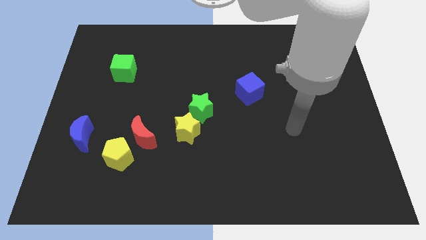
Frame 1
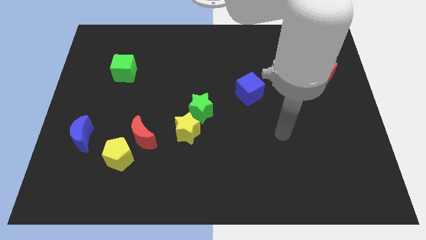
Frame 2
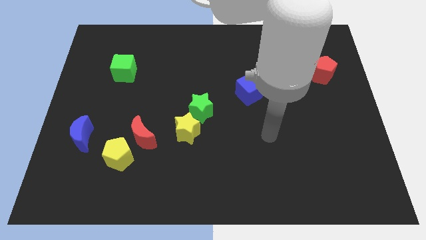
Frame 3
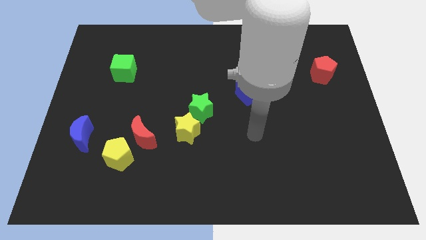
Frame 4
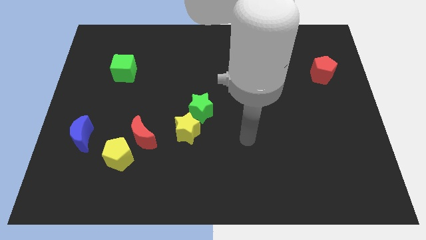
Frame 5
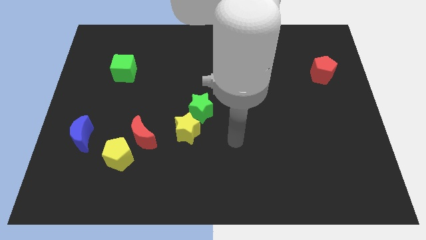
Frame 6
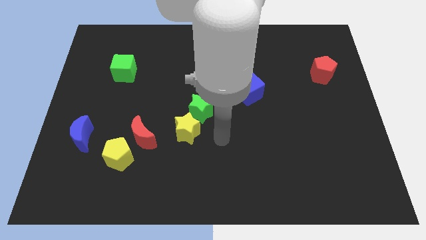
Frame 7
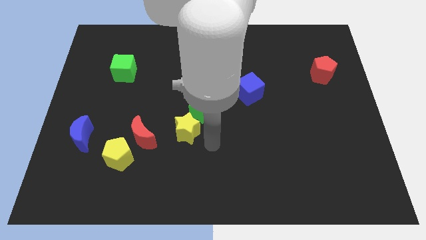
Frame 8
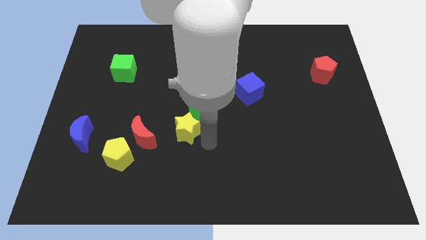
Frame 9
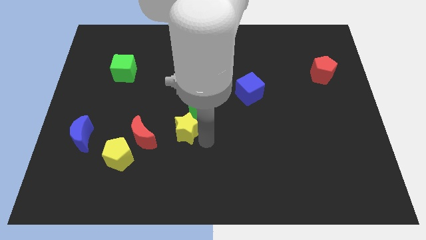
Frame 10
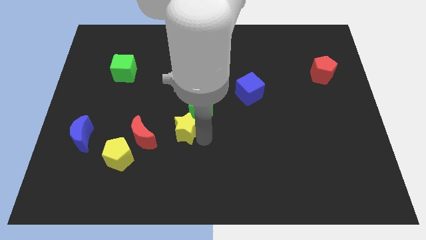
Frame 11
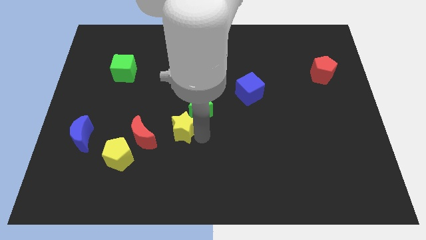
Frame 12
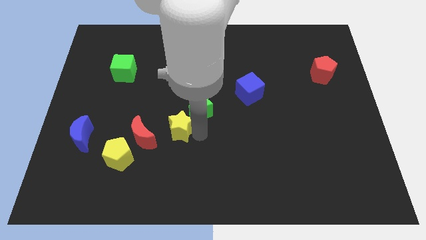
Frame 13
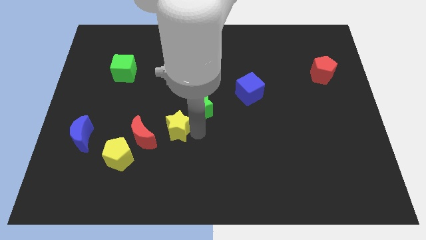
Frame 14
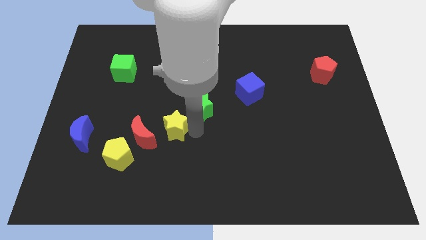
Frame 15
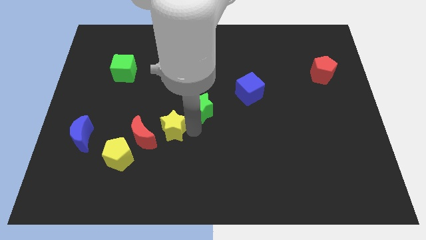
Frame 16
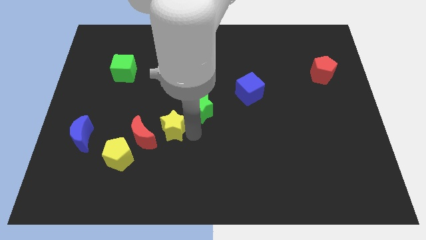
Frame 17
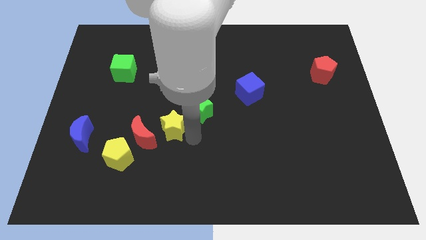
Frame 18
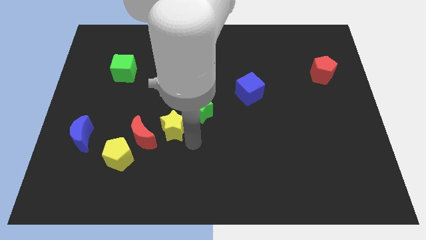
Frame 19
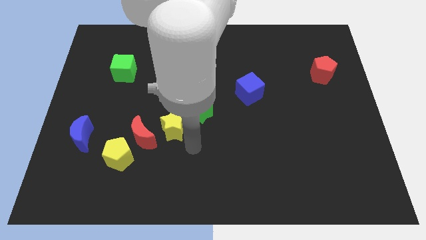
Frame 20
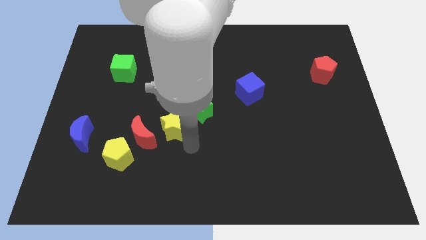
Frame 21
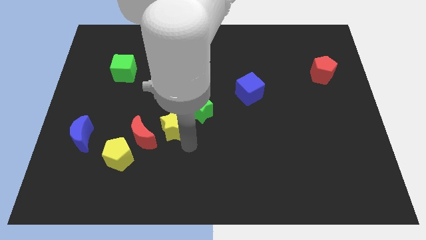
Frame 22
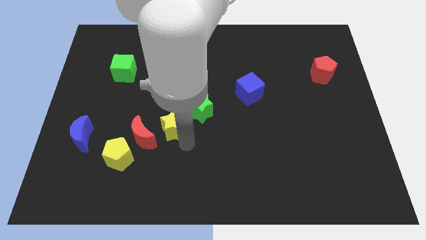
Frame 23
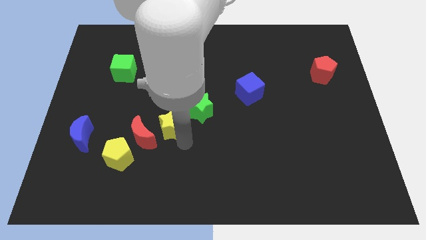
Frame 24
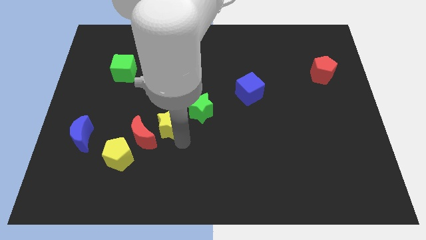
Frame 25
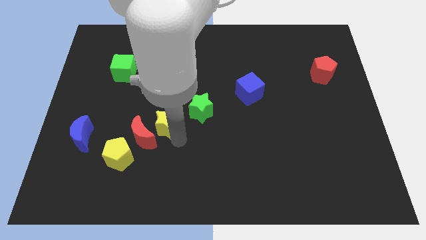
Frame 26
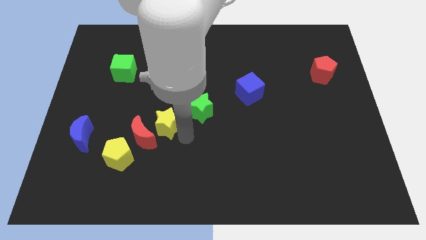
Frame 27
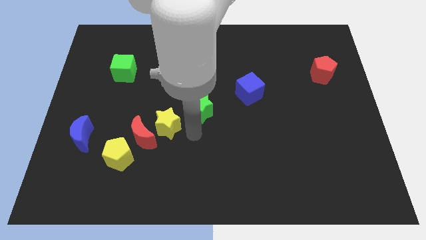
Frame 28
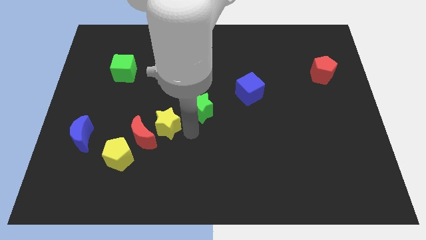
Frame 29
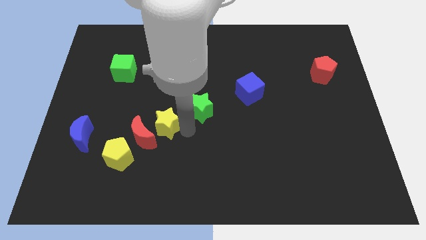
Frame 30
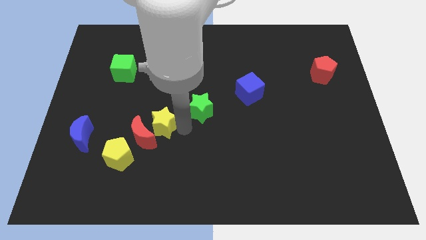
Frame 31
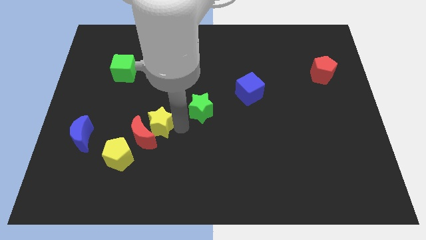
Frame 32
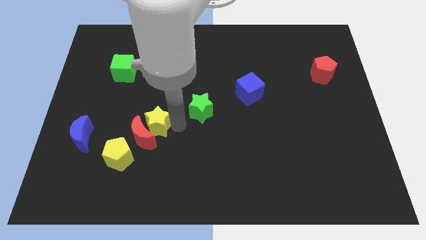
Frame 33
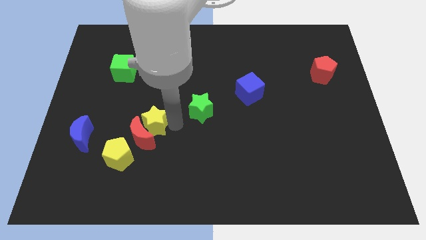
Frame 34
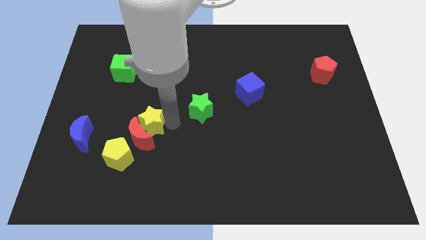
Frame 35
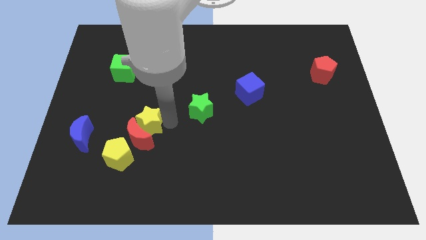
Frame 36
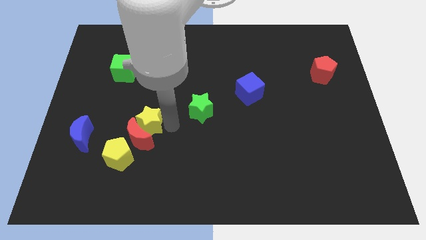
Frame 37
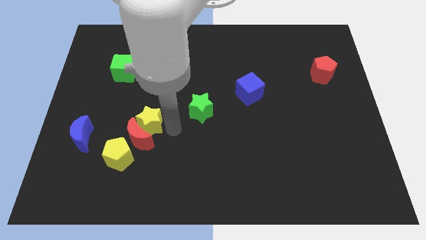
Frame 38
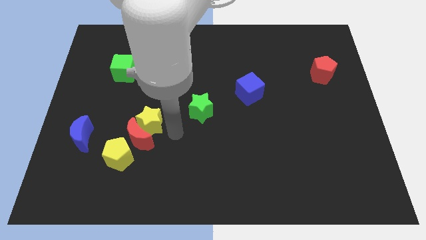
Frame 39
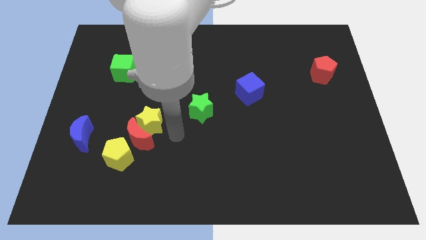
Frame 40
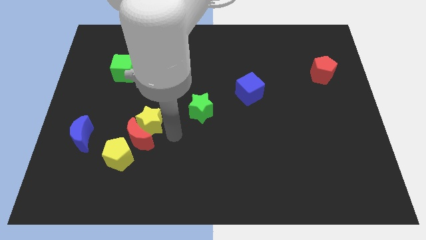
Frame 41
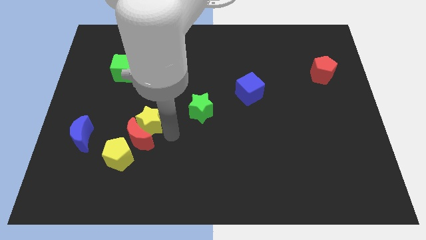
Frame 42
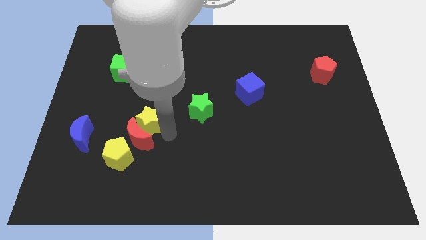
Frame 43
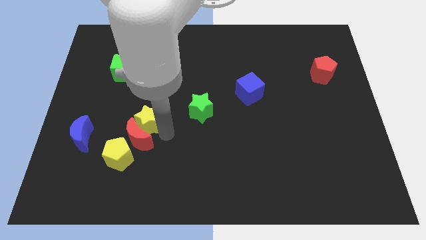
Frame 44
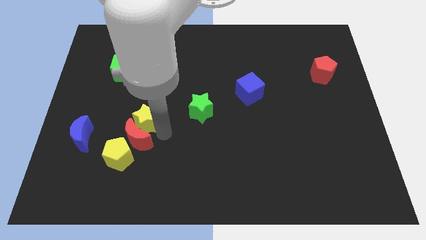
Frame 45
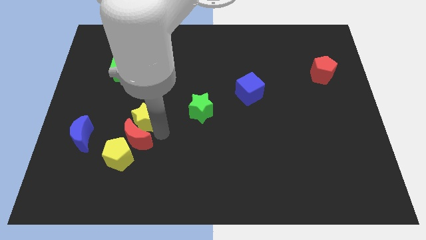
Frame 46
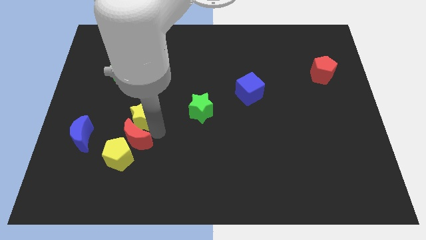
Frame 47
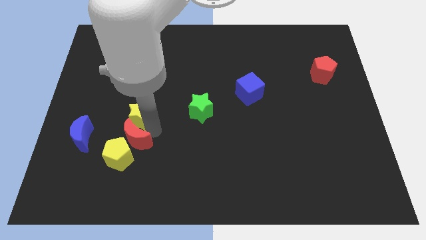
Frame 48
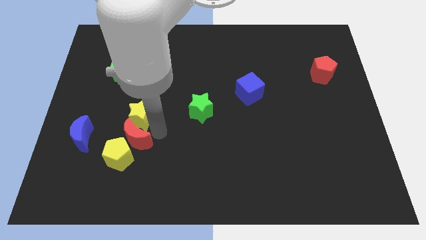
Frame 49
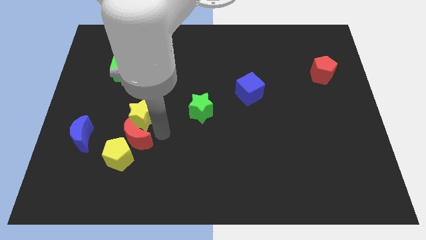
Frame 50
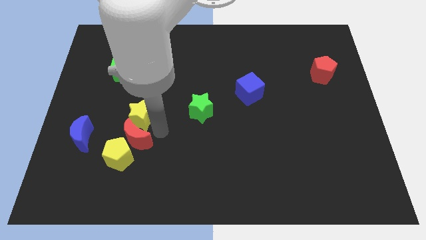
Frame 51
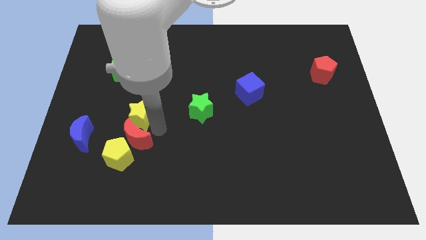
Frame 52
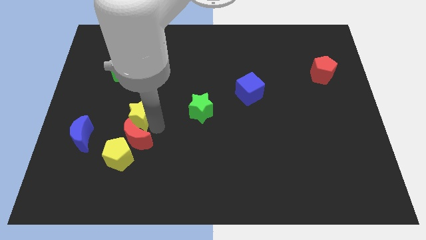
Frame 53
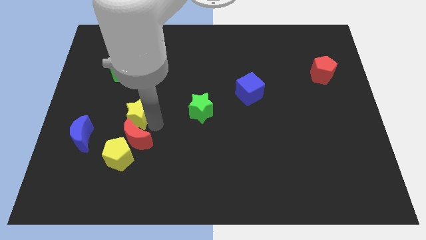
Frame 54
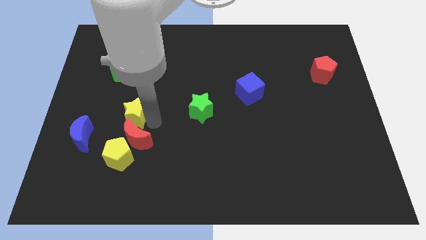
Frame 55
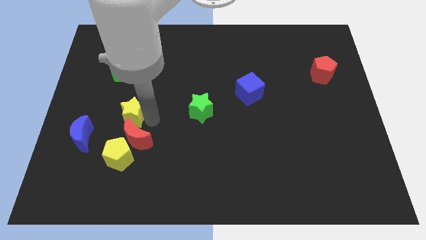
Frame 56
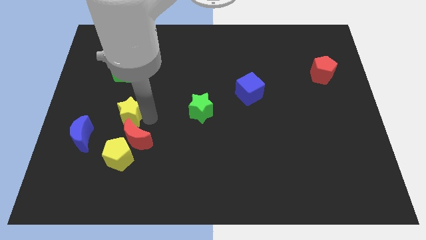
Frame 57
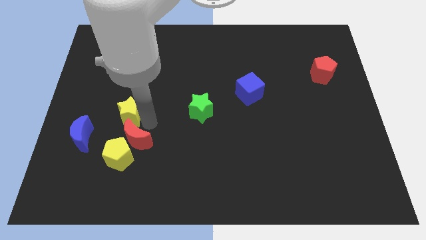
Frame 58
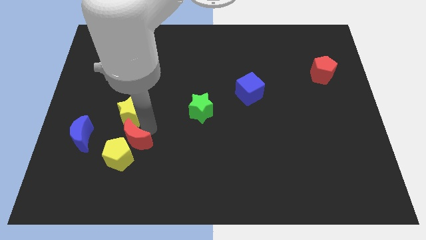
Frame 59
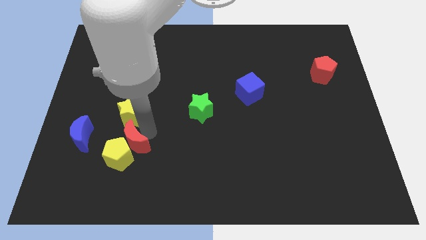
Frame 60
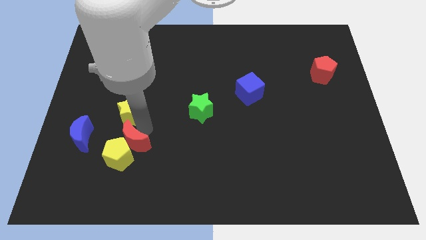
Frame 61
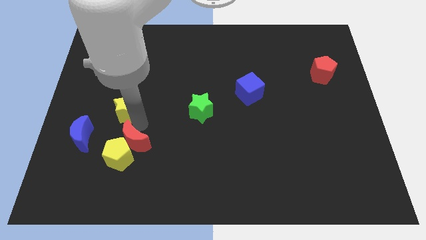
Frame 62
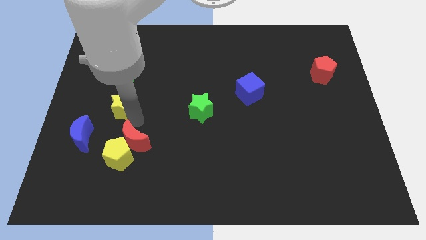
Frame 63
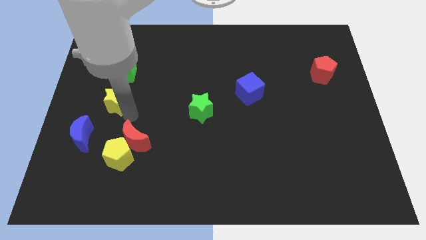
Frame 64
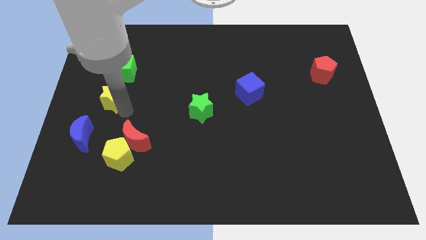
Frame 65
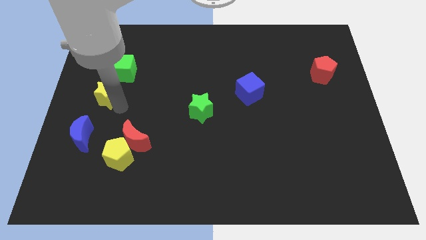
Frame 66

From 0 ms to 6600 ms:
put the yellow star to the bottom left of the green cube

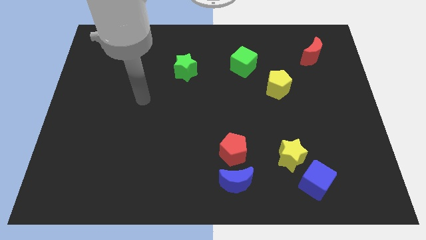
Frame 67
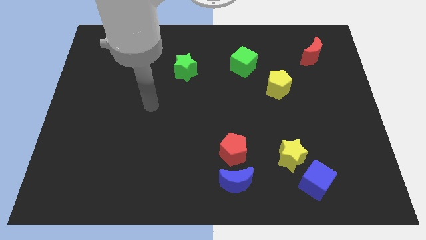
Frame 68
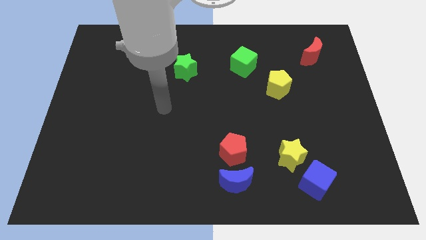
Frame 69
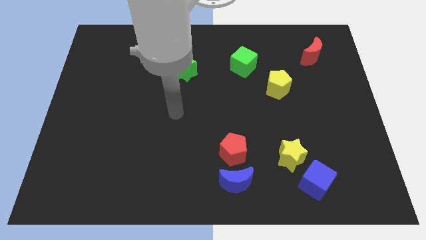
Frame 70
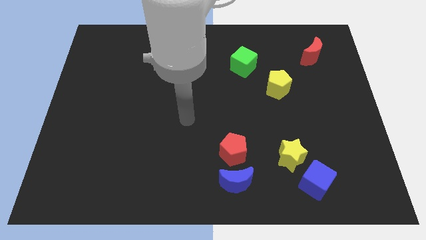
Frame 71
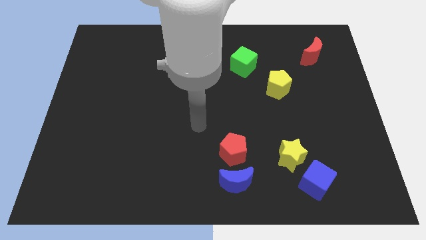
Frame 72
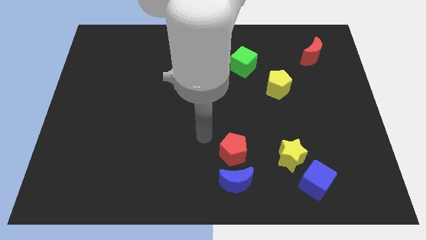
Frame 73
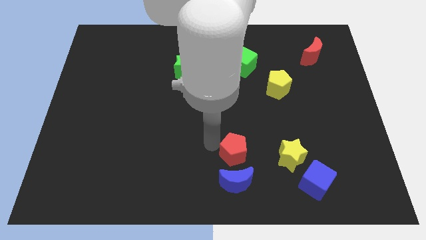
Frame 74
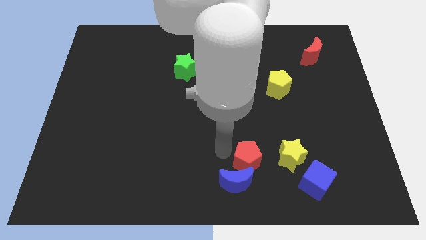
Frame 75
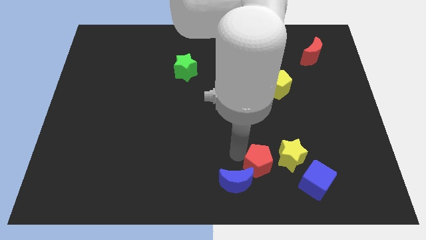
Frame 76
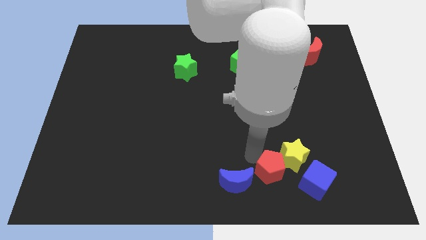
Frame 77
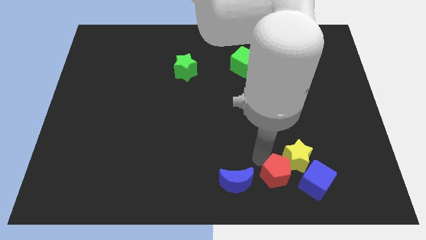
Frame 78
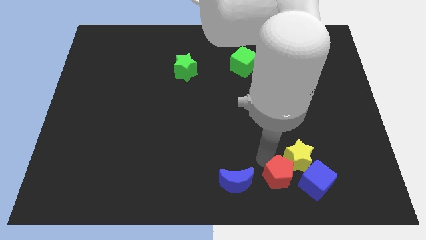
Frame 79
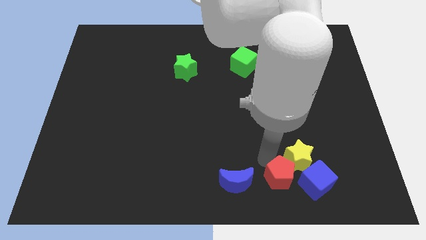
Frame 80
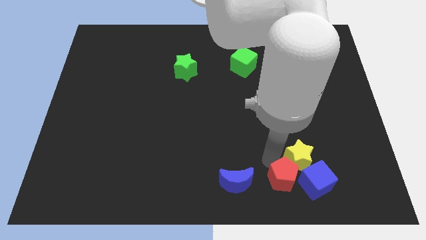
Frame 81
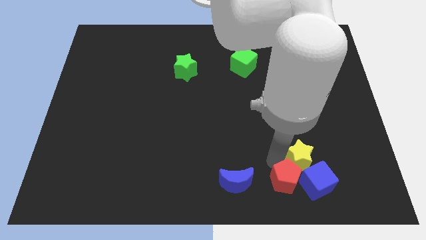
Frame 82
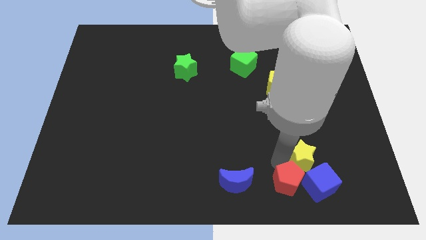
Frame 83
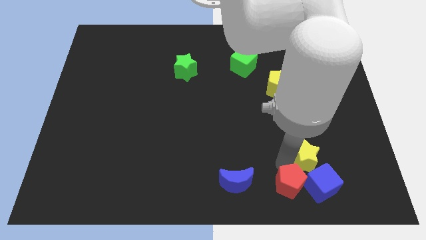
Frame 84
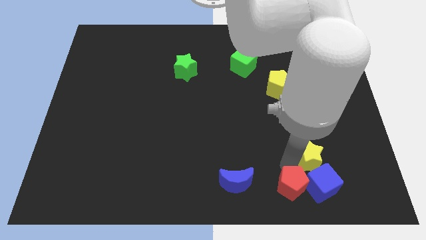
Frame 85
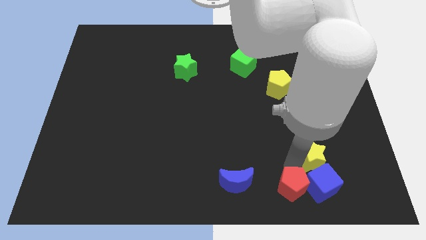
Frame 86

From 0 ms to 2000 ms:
slide the yellow star diagonally up and to the right of the blue cube
